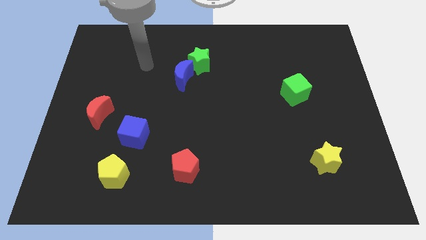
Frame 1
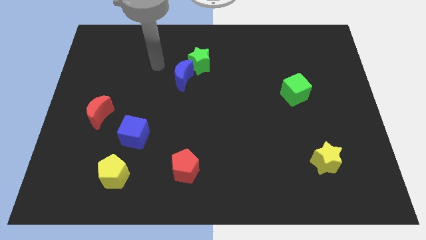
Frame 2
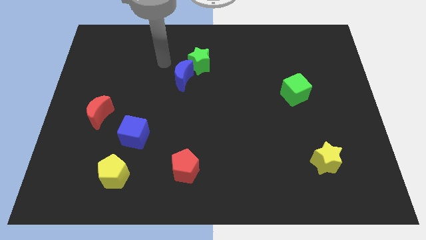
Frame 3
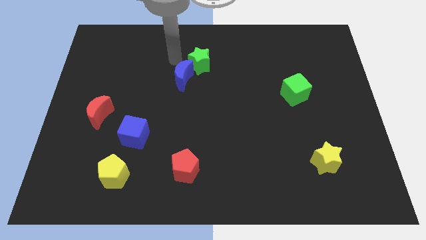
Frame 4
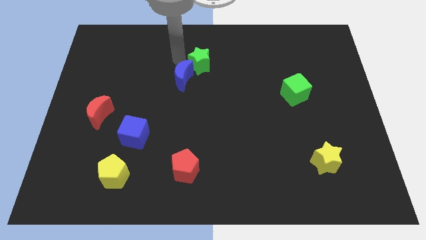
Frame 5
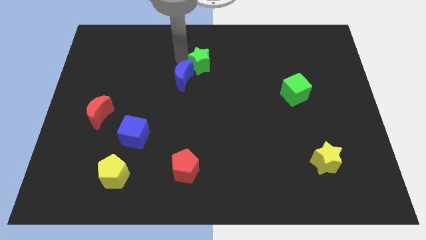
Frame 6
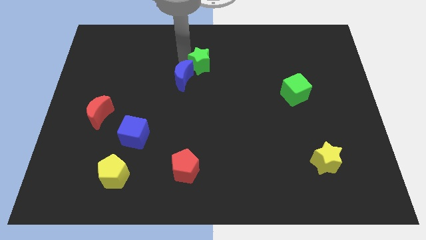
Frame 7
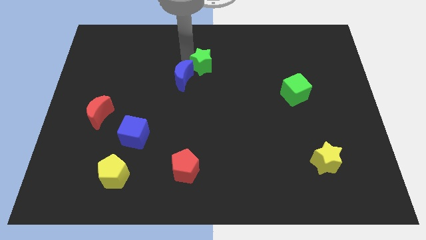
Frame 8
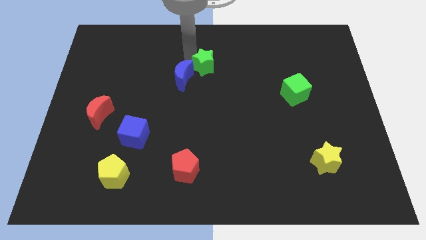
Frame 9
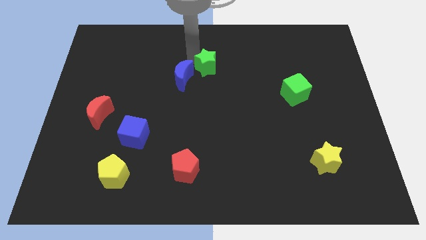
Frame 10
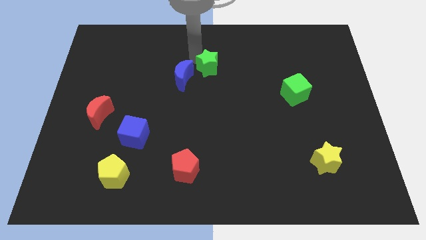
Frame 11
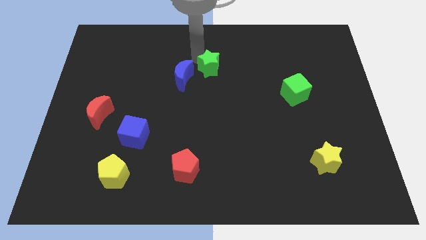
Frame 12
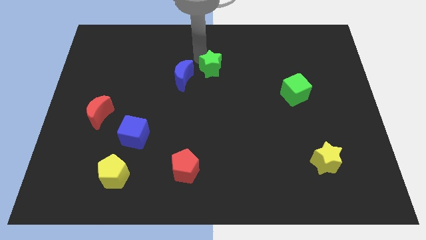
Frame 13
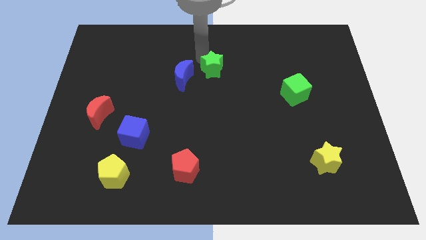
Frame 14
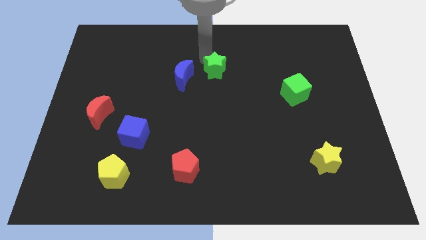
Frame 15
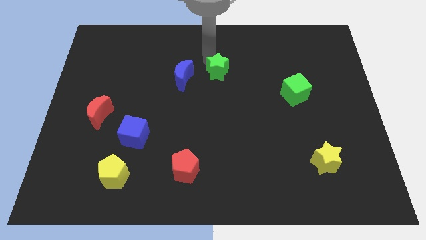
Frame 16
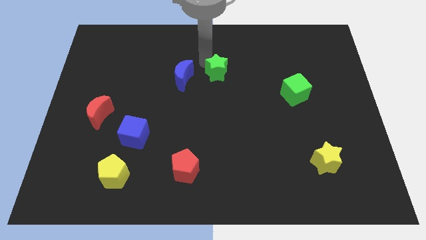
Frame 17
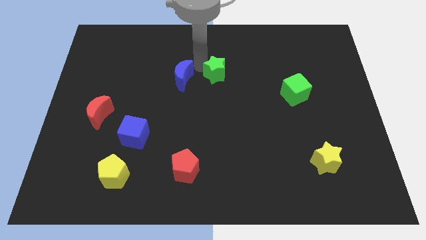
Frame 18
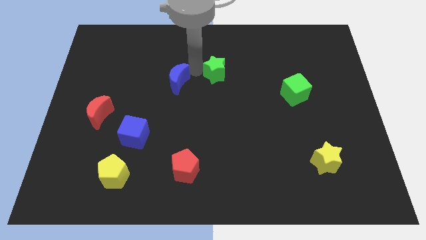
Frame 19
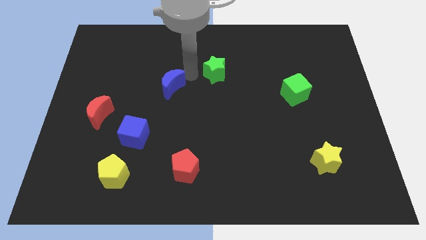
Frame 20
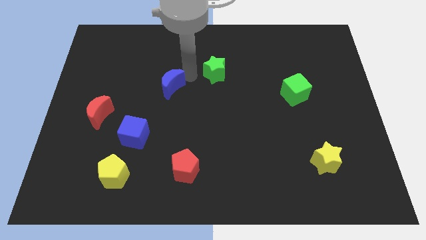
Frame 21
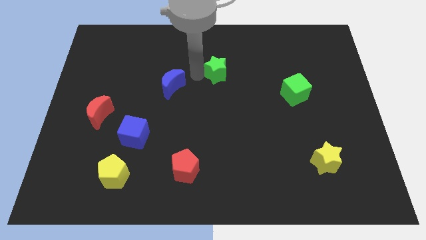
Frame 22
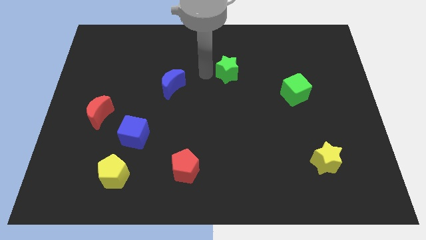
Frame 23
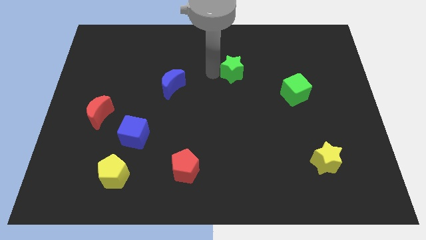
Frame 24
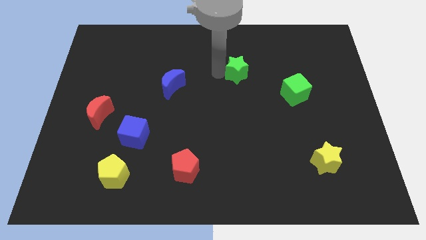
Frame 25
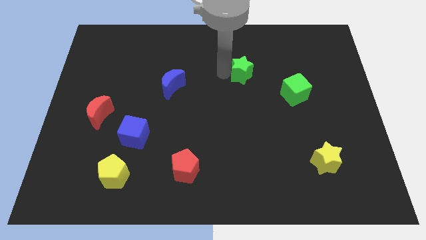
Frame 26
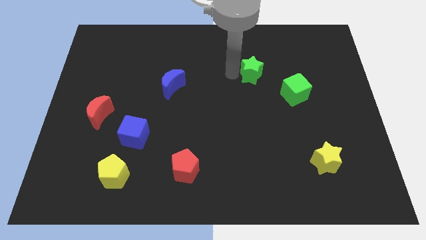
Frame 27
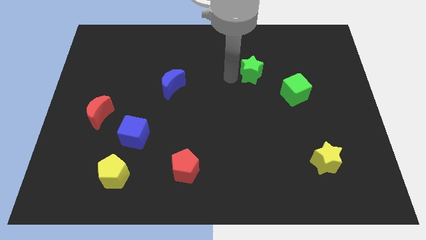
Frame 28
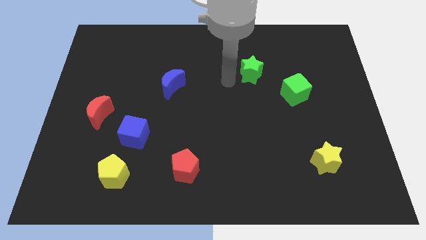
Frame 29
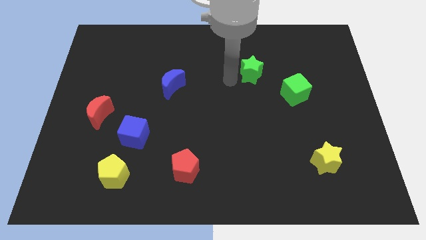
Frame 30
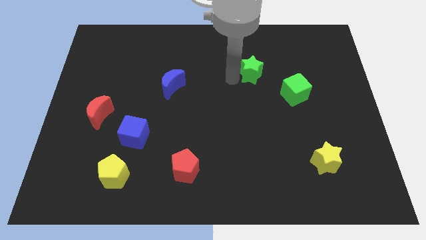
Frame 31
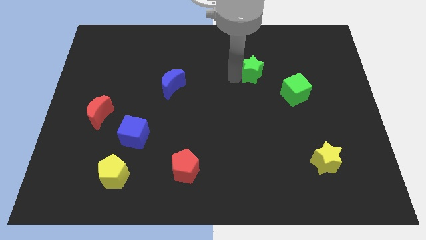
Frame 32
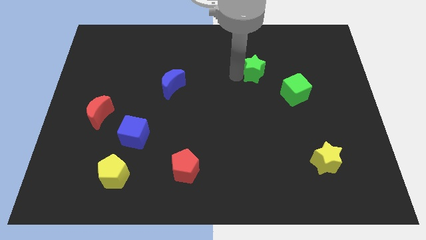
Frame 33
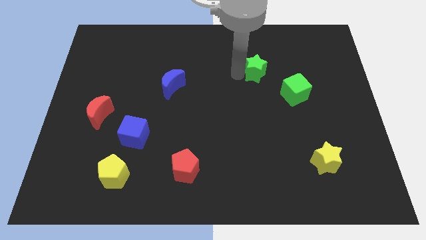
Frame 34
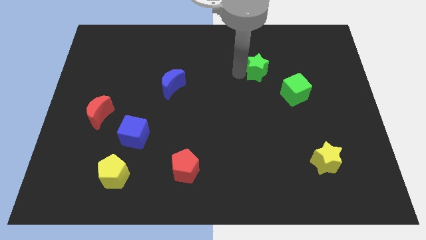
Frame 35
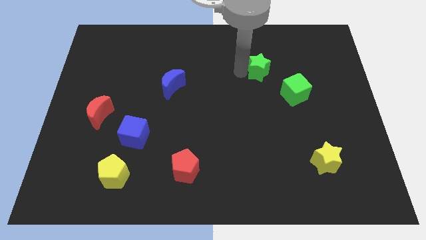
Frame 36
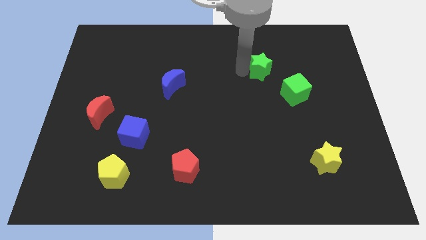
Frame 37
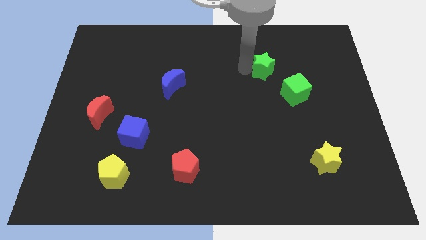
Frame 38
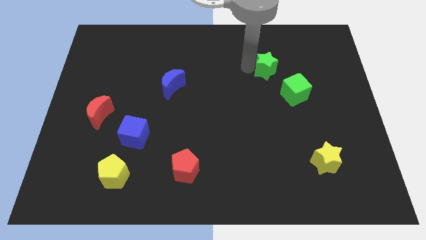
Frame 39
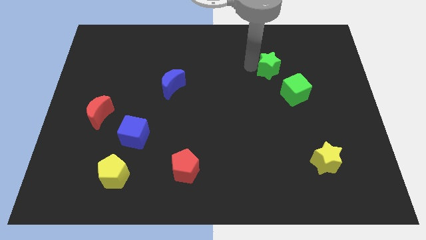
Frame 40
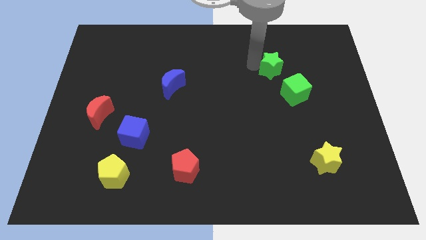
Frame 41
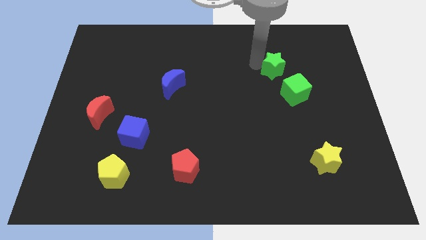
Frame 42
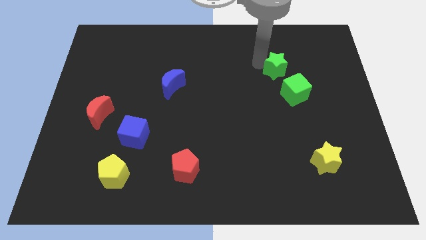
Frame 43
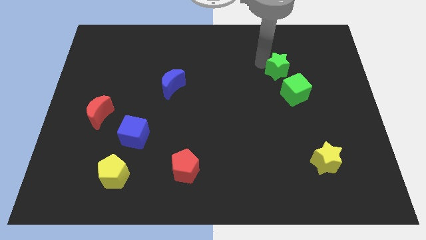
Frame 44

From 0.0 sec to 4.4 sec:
move the green star right

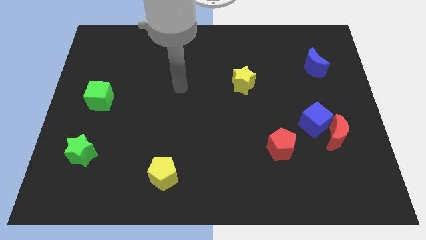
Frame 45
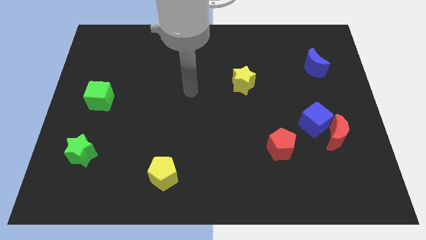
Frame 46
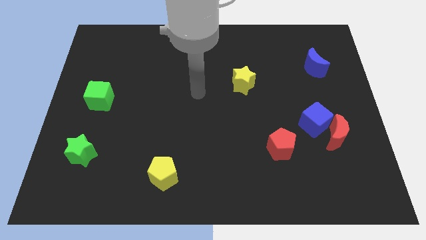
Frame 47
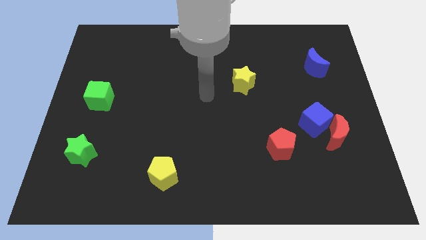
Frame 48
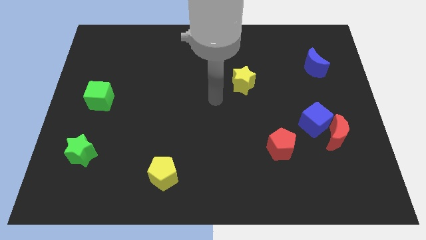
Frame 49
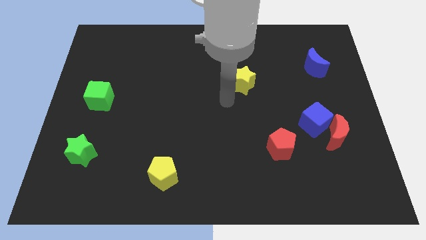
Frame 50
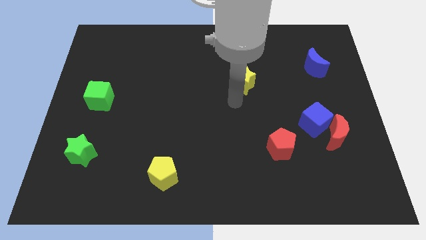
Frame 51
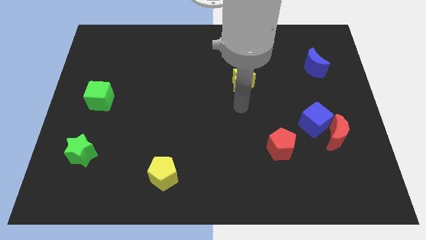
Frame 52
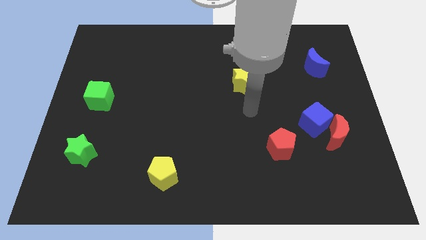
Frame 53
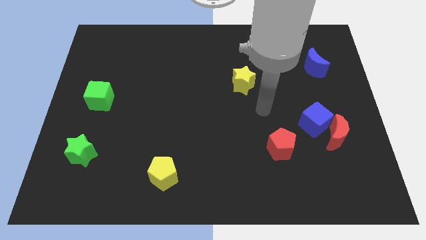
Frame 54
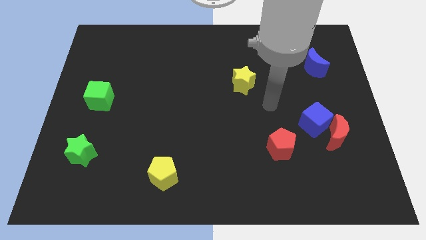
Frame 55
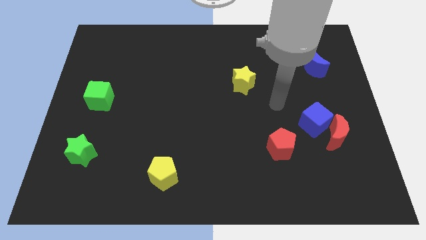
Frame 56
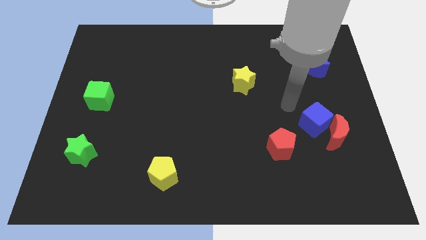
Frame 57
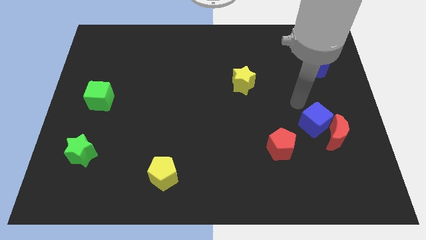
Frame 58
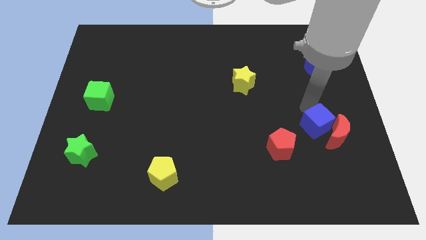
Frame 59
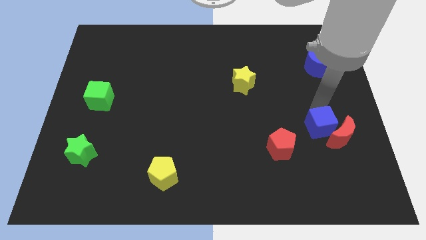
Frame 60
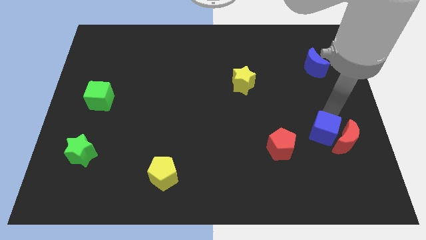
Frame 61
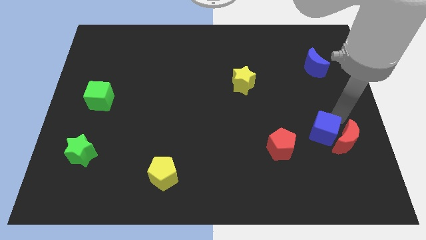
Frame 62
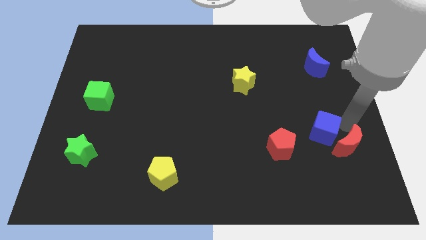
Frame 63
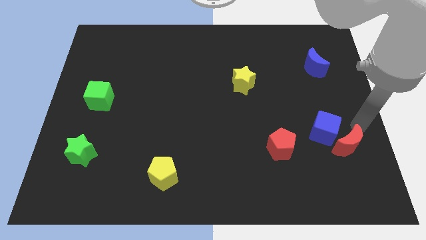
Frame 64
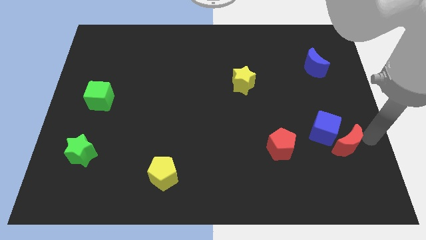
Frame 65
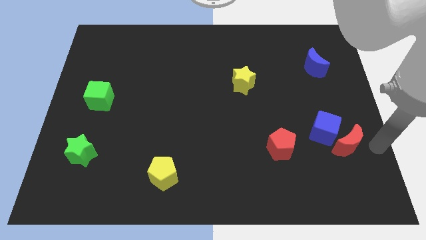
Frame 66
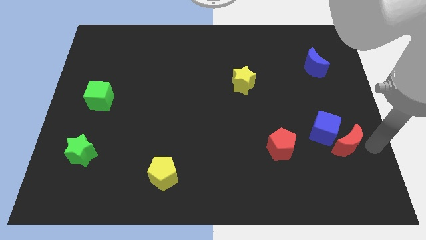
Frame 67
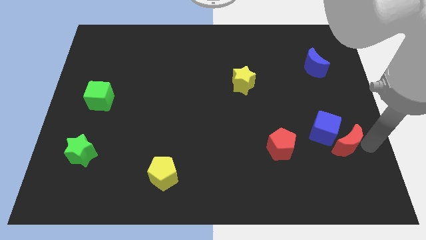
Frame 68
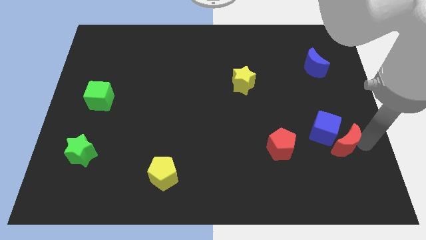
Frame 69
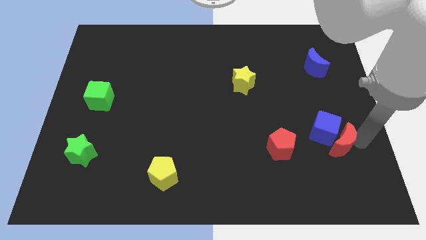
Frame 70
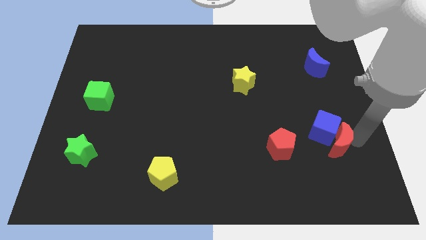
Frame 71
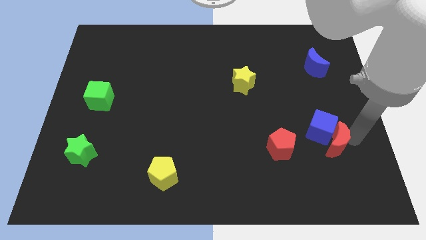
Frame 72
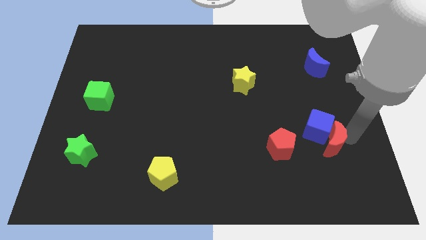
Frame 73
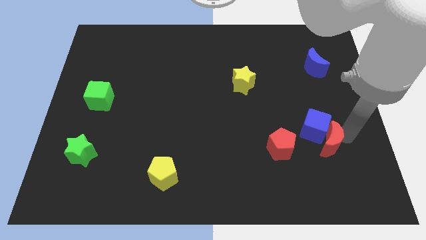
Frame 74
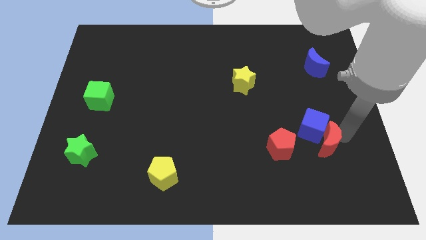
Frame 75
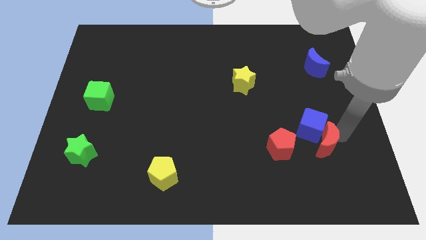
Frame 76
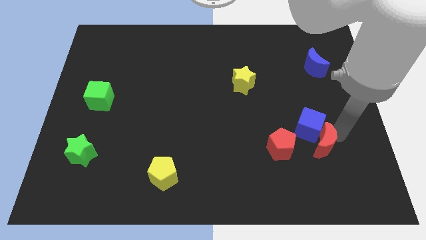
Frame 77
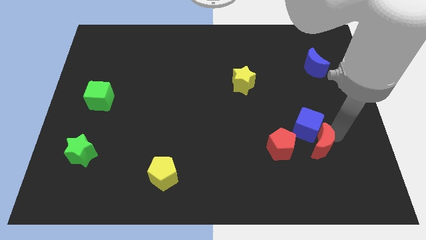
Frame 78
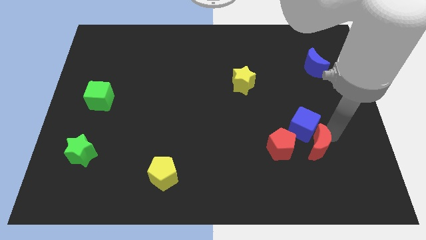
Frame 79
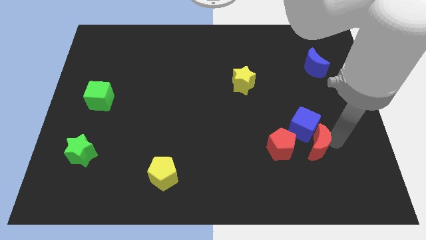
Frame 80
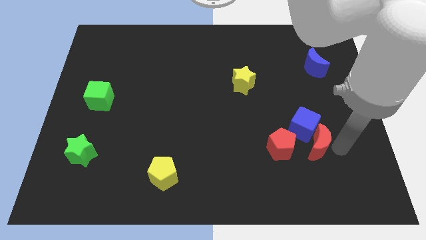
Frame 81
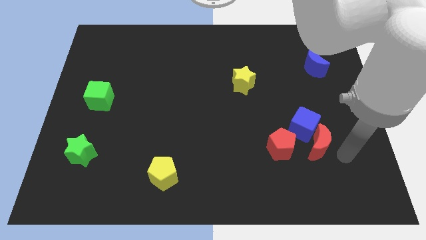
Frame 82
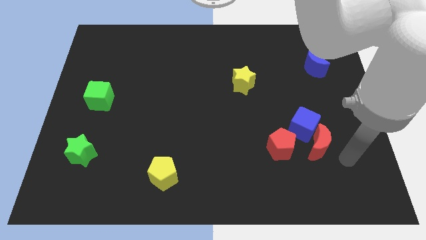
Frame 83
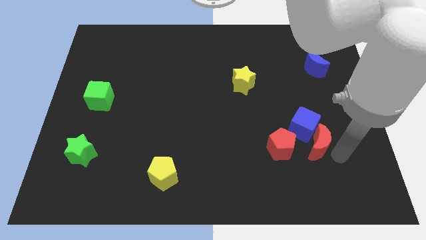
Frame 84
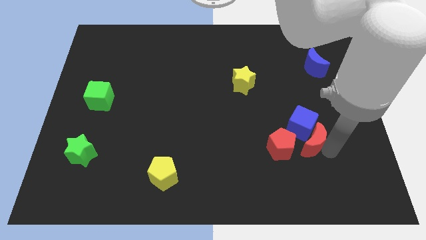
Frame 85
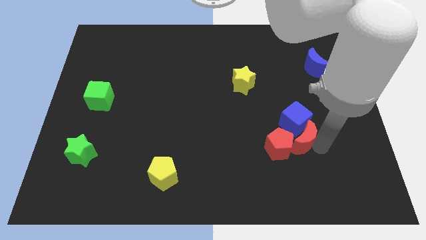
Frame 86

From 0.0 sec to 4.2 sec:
slide the red moon to the left a little
